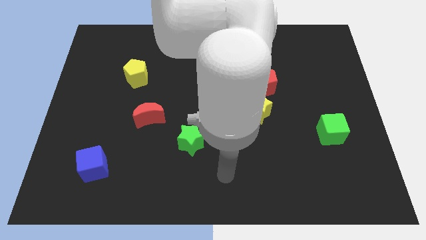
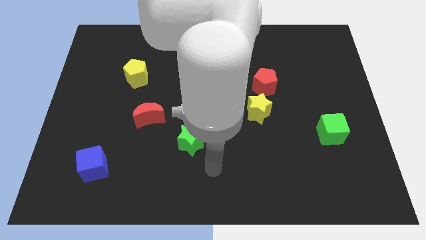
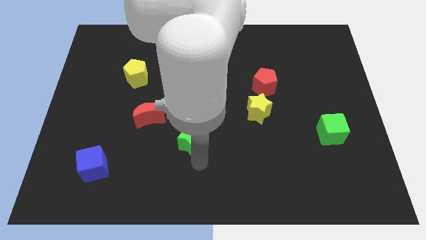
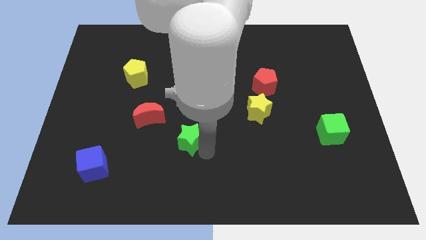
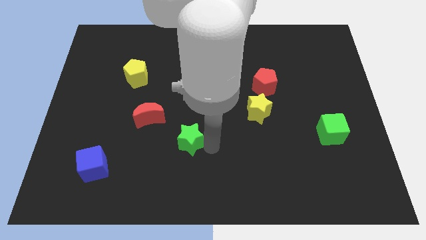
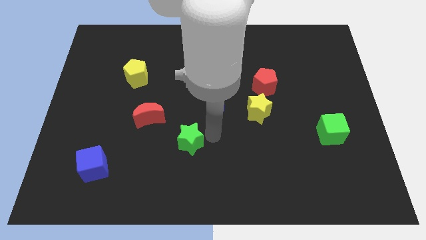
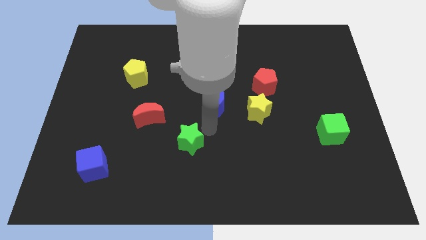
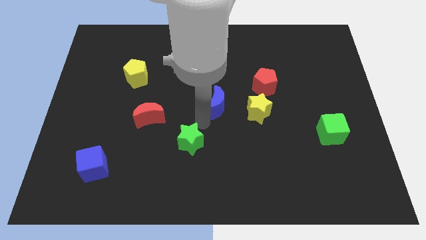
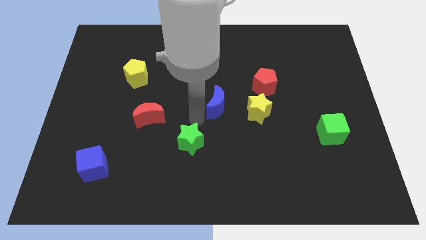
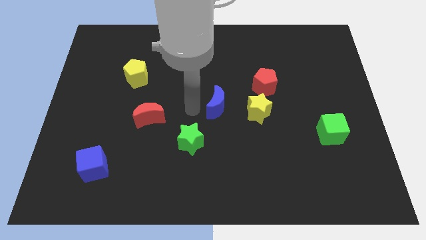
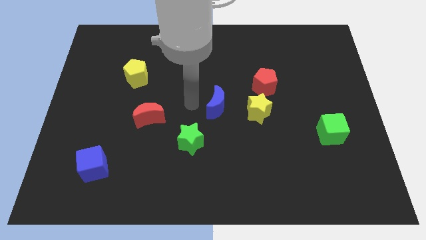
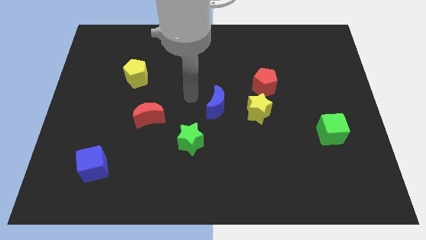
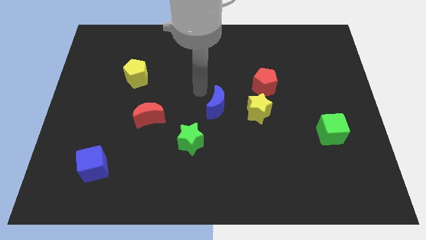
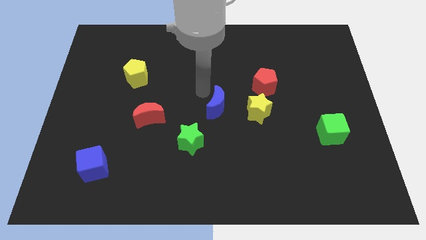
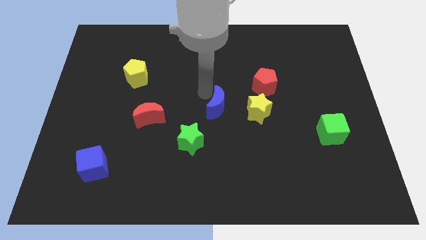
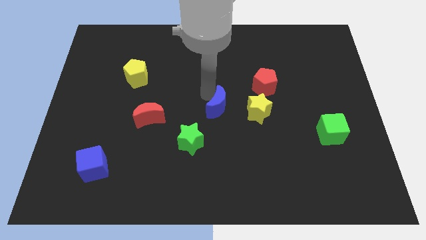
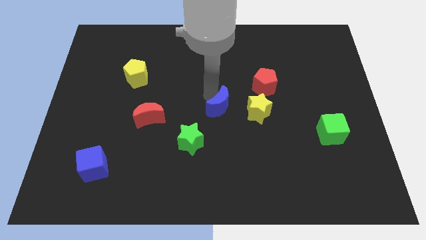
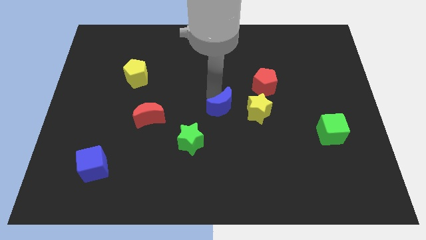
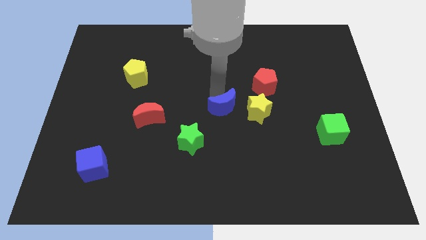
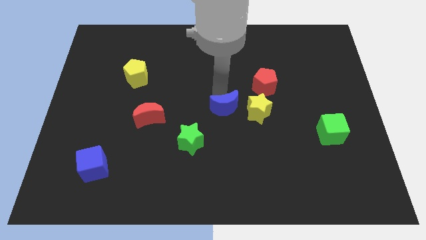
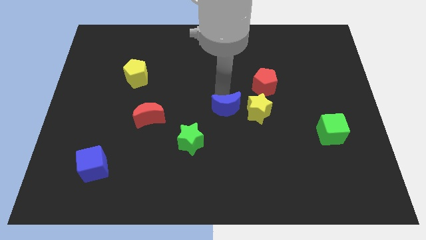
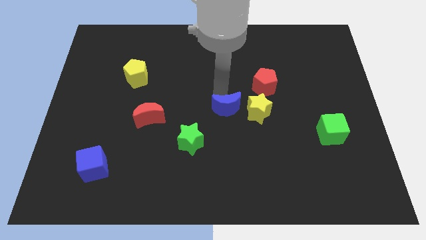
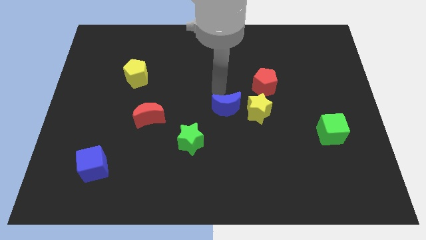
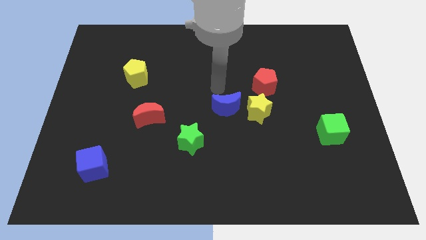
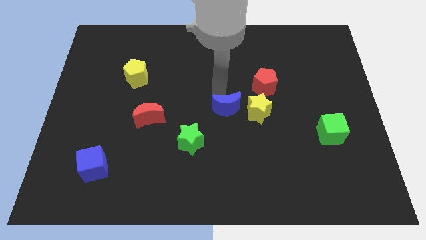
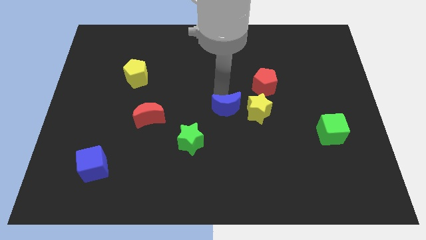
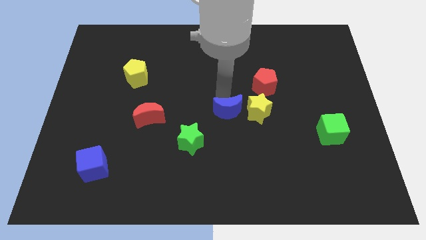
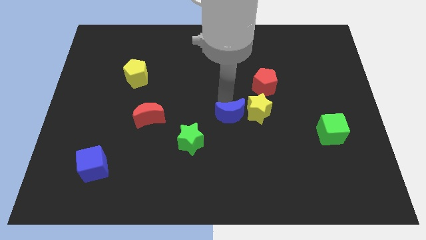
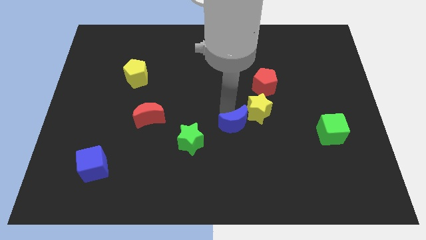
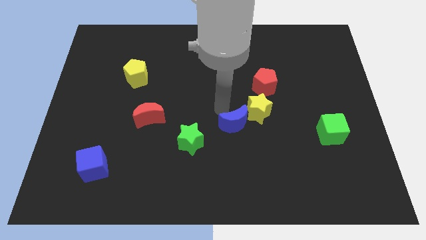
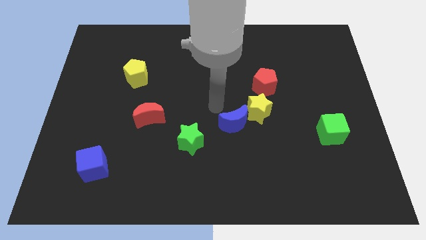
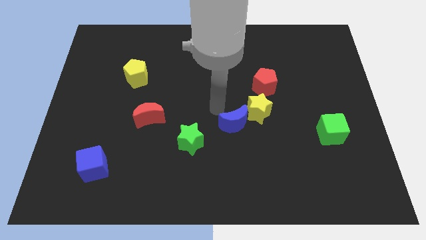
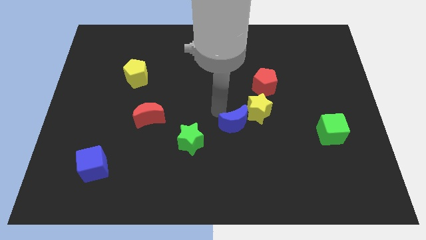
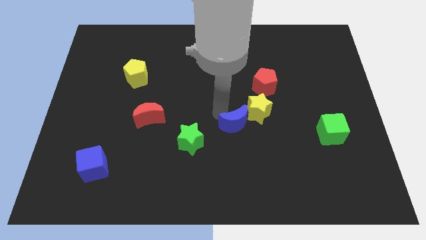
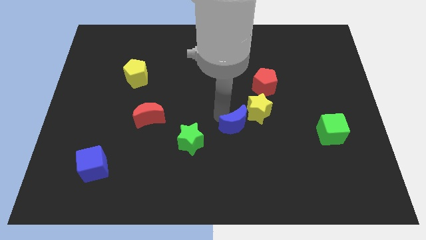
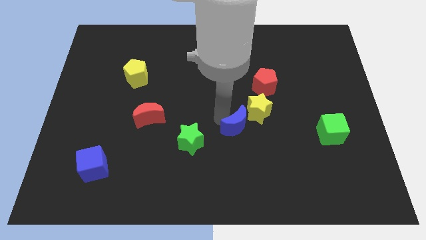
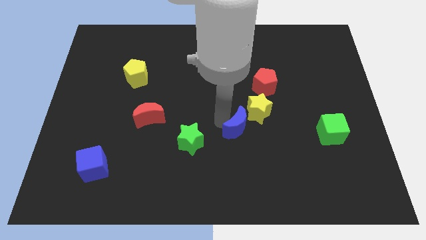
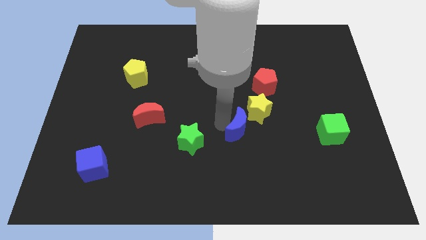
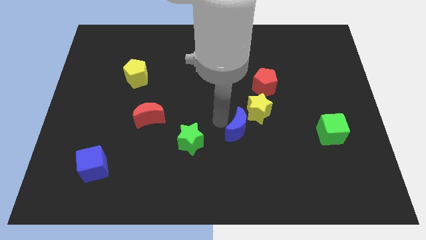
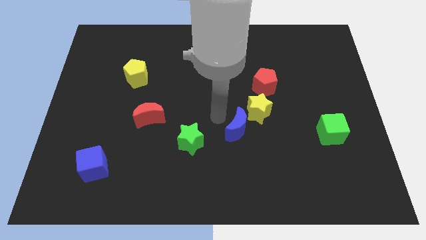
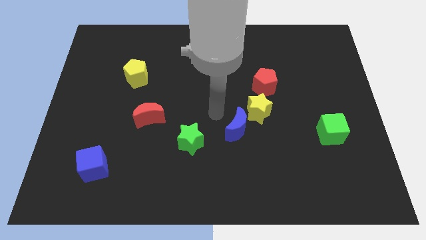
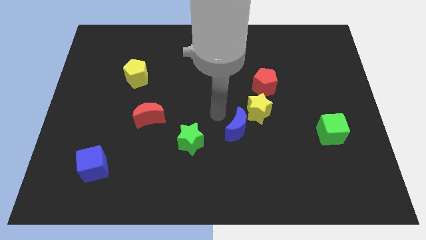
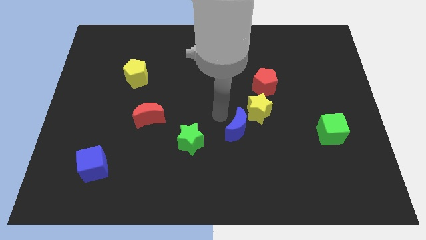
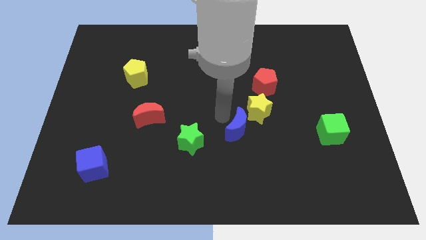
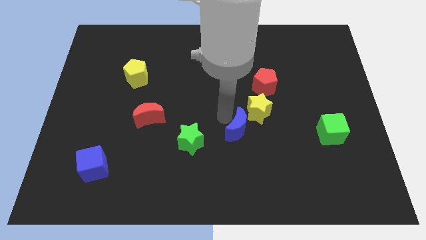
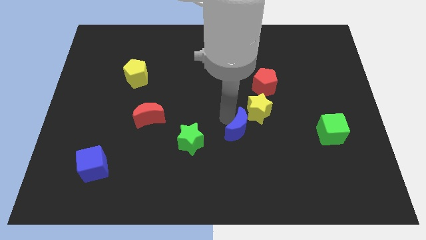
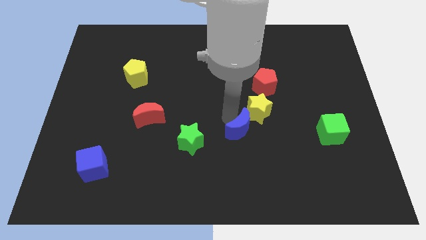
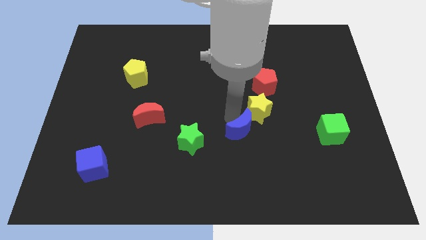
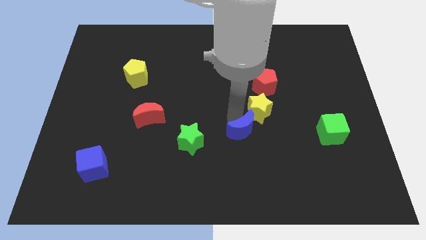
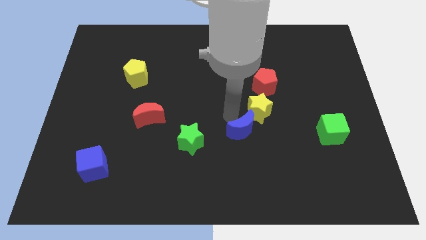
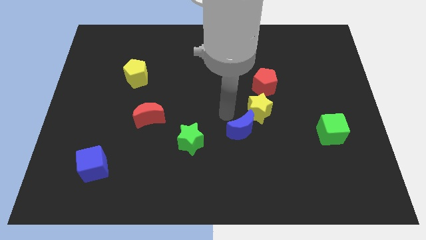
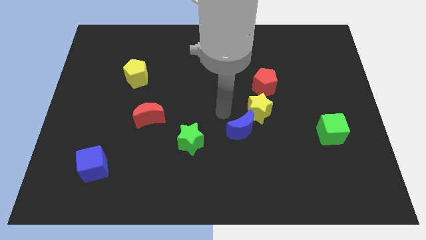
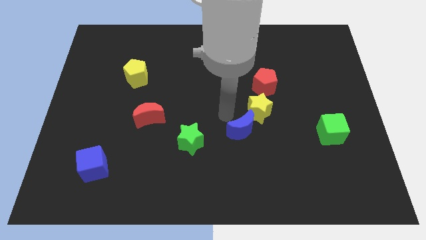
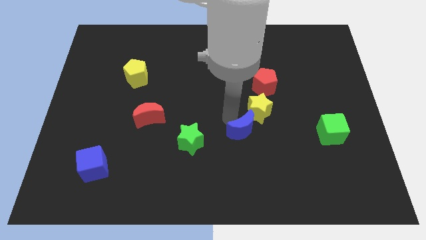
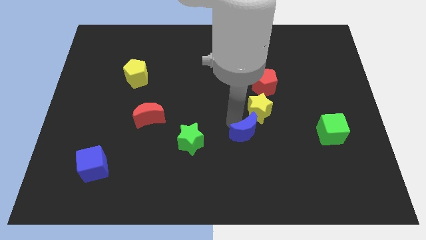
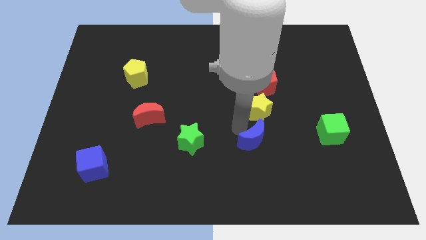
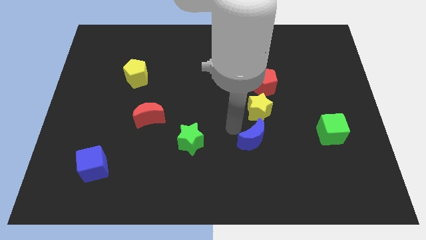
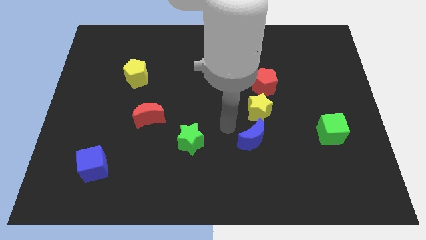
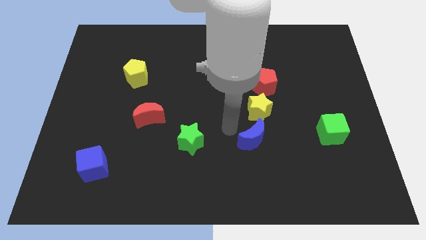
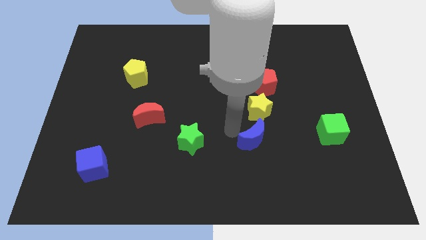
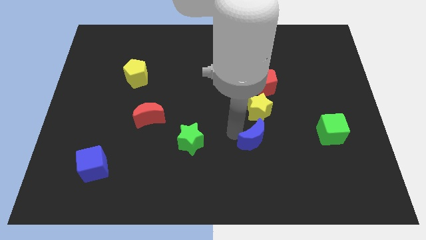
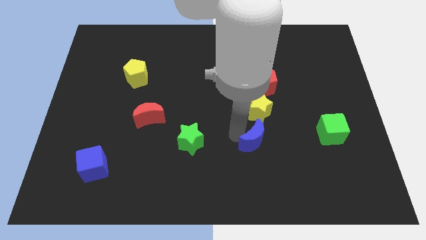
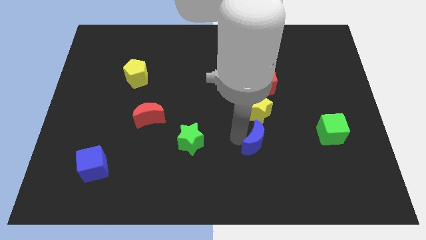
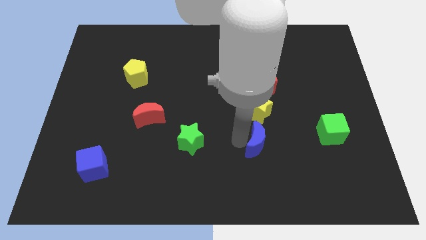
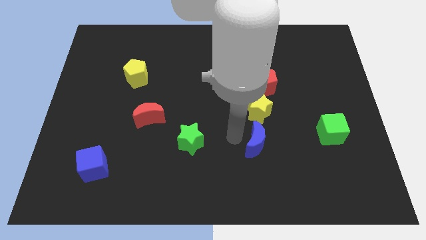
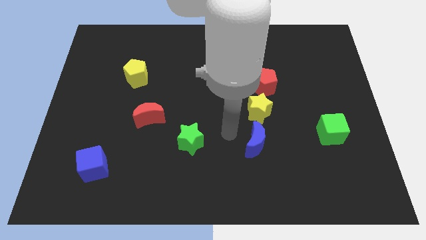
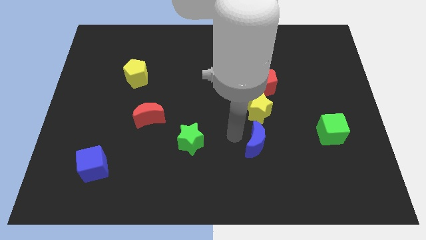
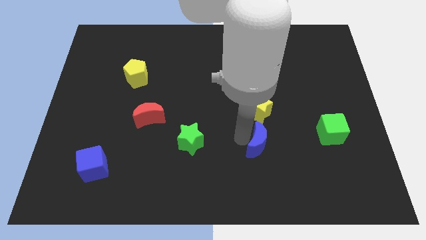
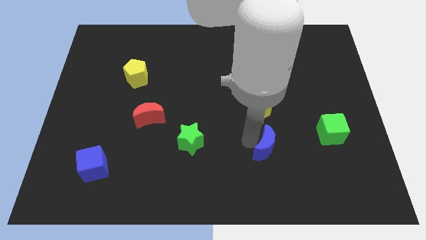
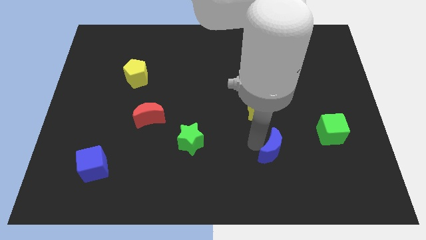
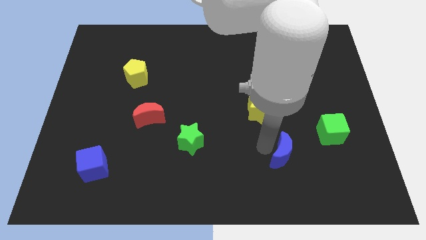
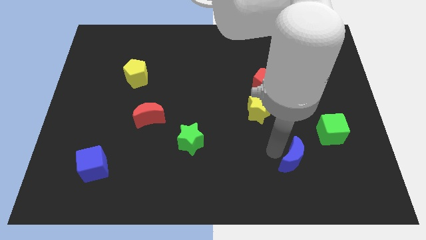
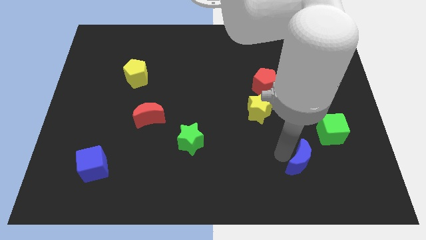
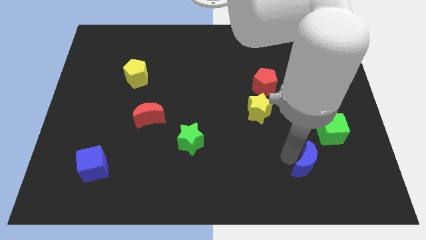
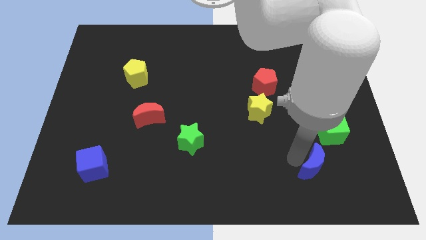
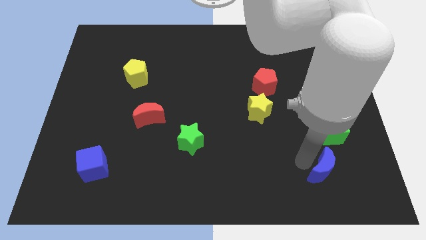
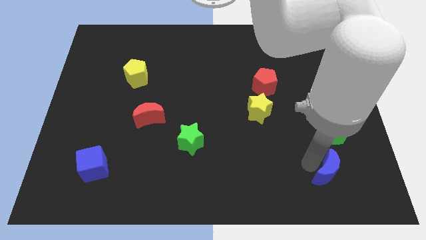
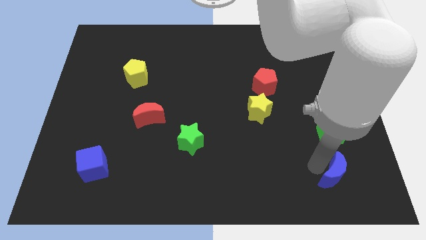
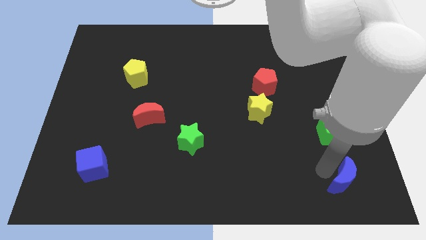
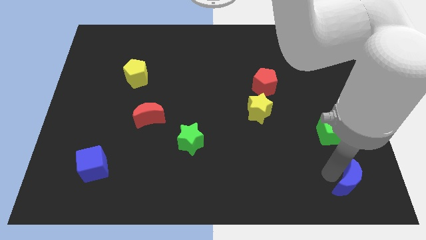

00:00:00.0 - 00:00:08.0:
slide the blue moon to the bottom right corner
